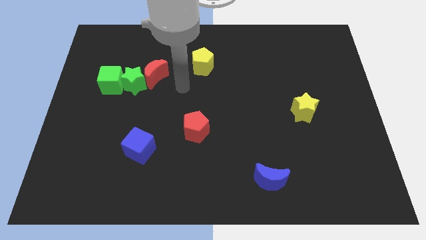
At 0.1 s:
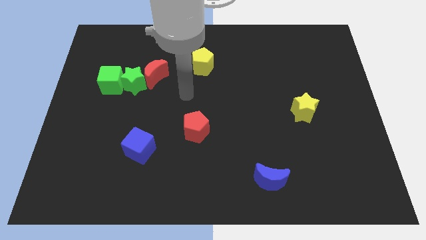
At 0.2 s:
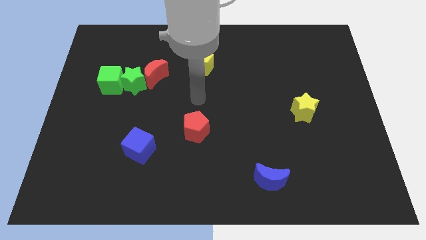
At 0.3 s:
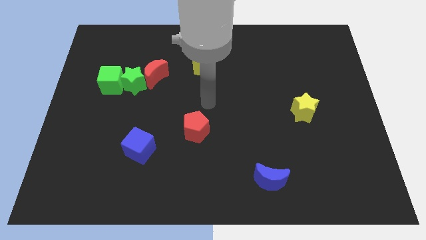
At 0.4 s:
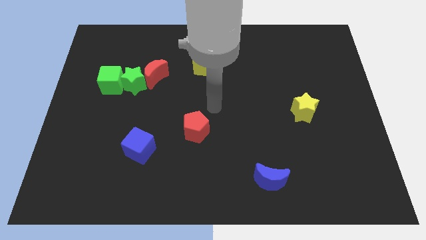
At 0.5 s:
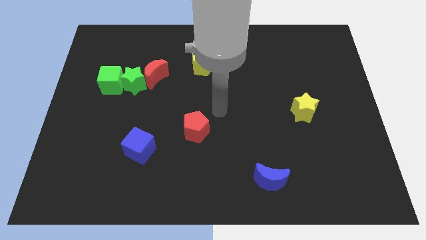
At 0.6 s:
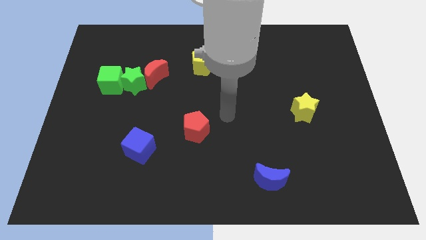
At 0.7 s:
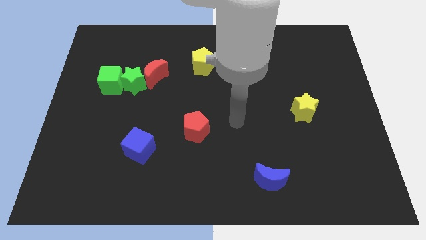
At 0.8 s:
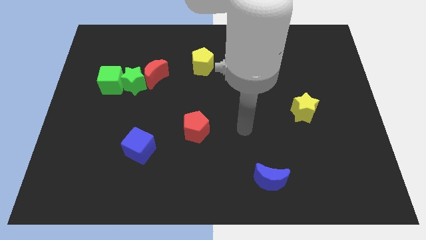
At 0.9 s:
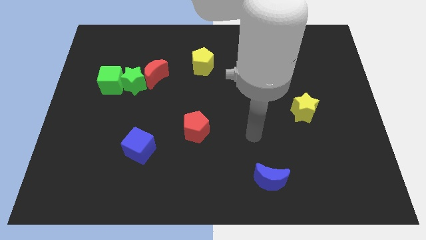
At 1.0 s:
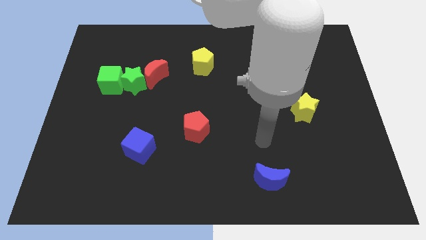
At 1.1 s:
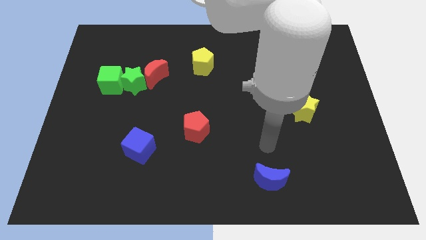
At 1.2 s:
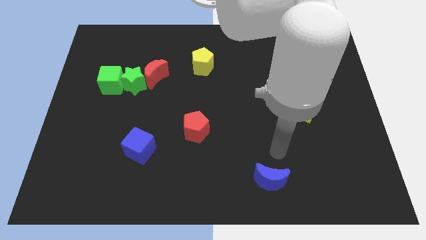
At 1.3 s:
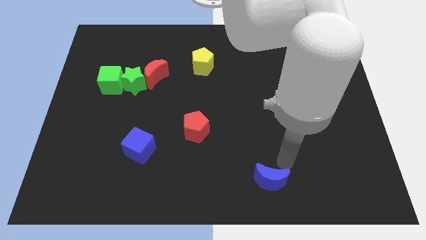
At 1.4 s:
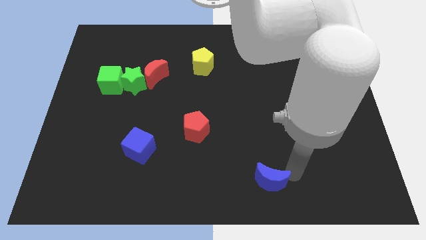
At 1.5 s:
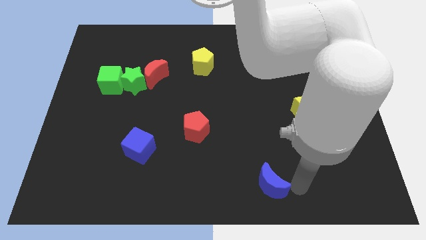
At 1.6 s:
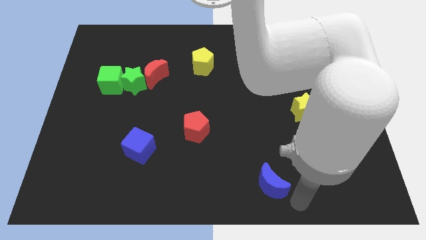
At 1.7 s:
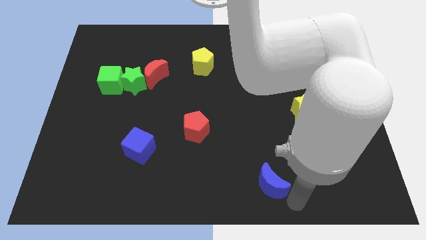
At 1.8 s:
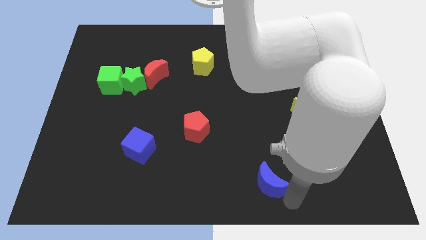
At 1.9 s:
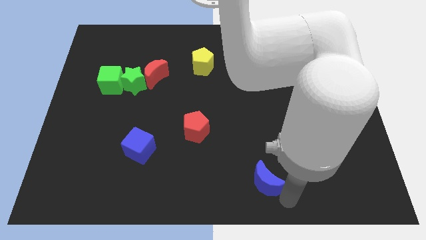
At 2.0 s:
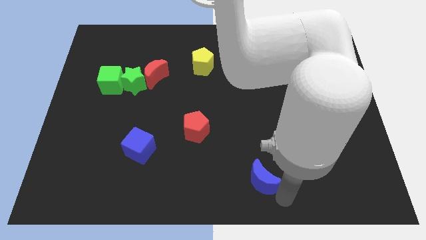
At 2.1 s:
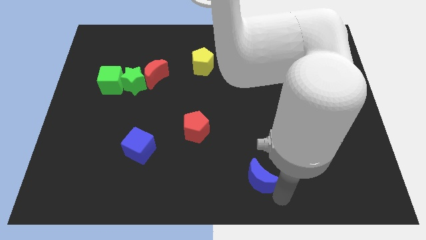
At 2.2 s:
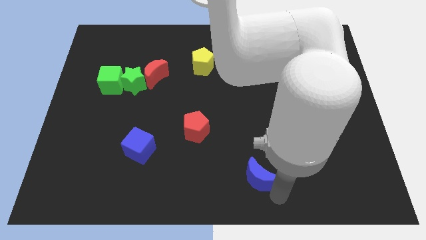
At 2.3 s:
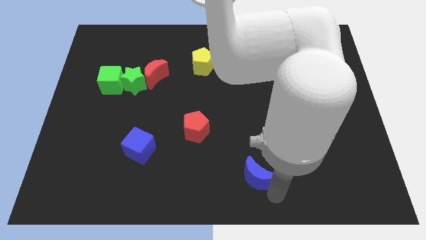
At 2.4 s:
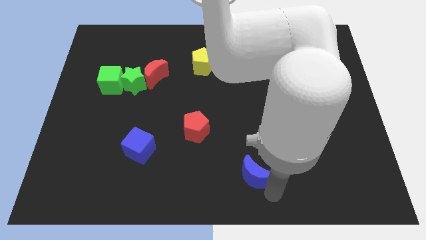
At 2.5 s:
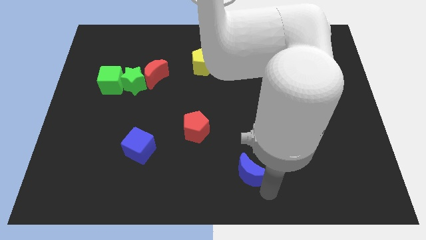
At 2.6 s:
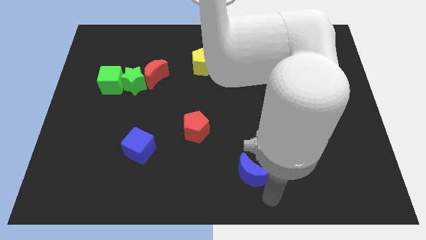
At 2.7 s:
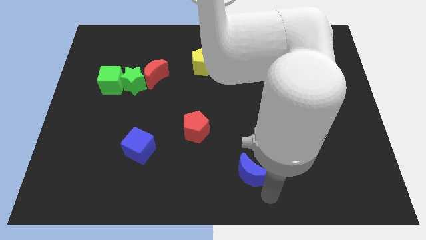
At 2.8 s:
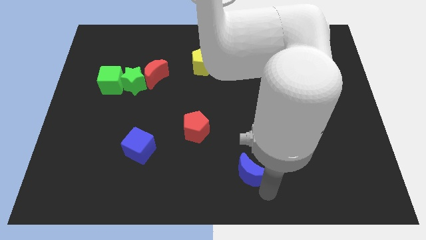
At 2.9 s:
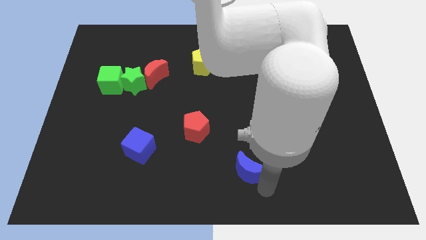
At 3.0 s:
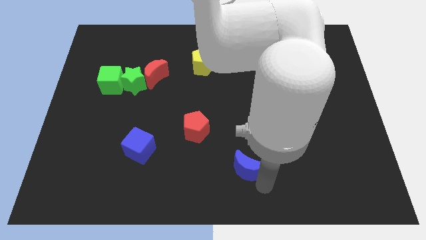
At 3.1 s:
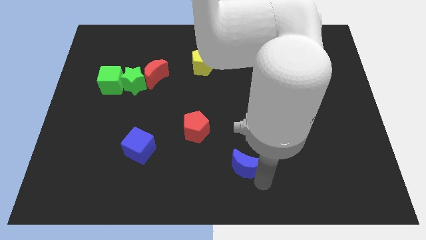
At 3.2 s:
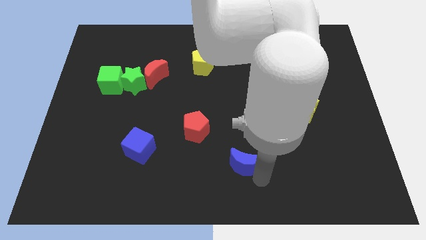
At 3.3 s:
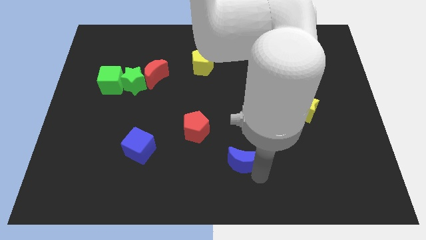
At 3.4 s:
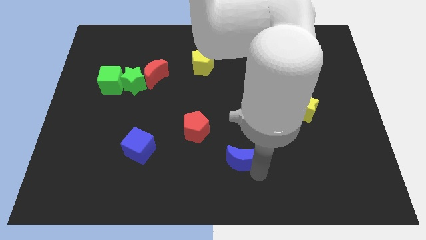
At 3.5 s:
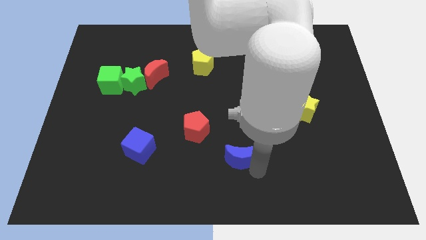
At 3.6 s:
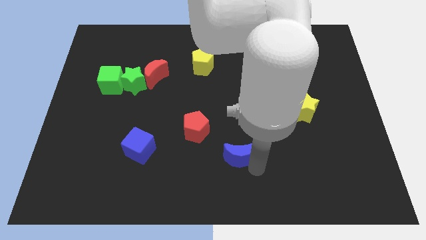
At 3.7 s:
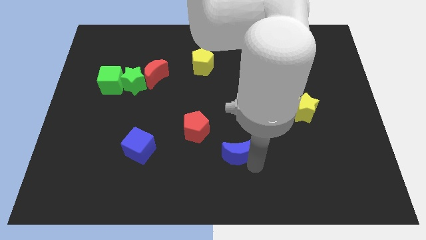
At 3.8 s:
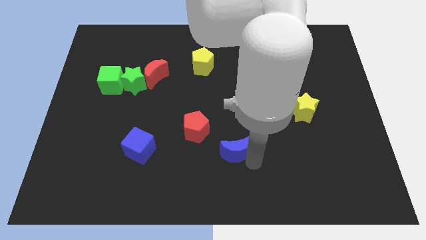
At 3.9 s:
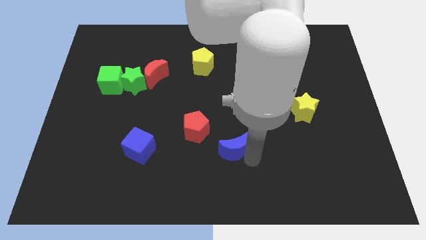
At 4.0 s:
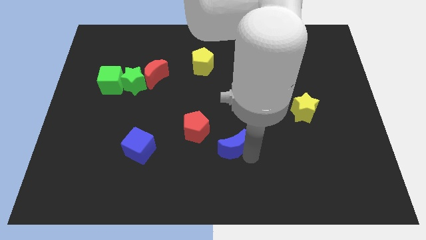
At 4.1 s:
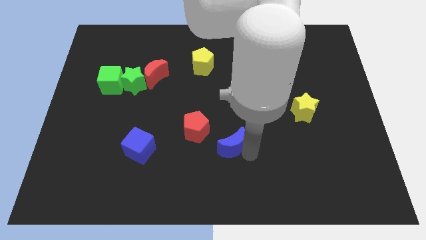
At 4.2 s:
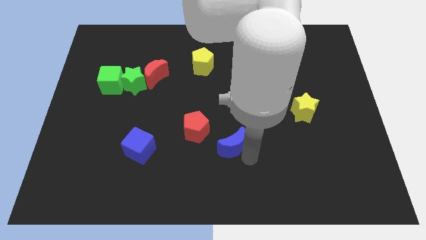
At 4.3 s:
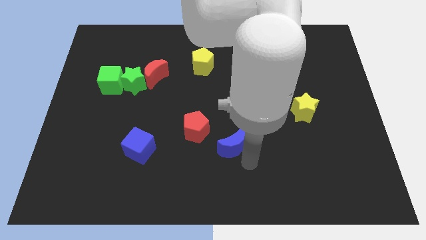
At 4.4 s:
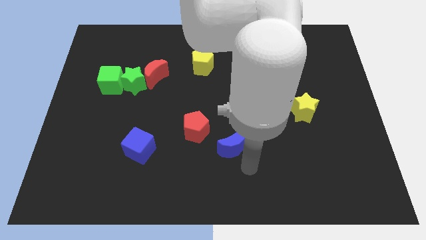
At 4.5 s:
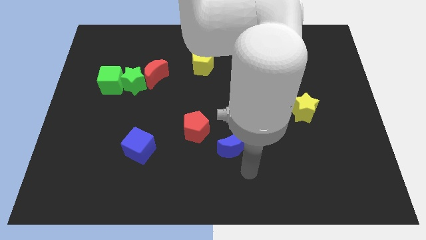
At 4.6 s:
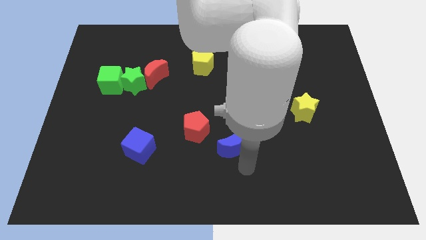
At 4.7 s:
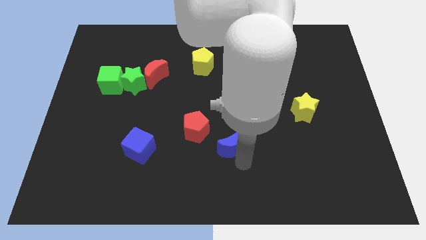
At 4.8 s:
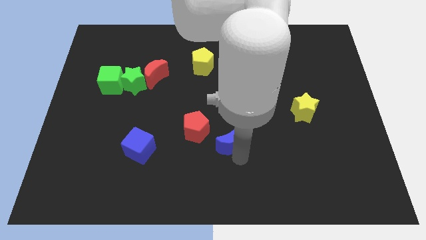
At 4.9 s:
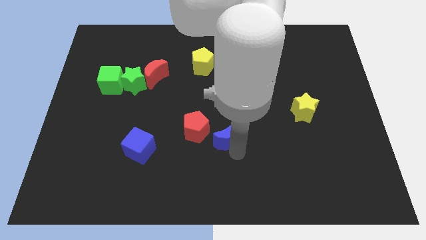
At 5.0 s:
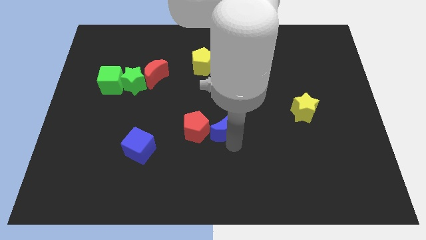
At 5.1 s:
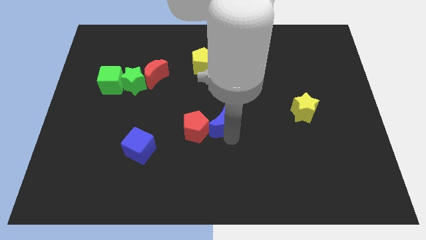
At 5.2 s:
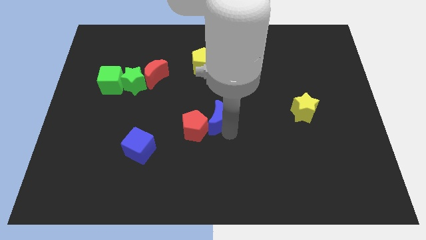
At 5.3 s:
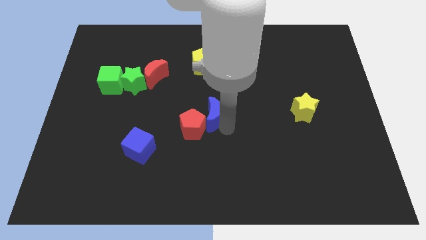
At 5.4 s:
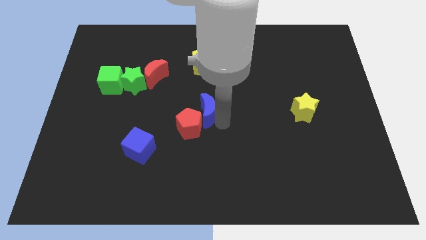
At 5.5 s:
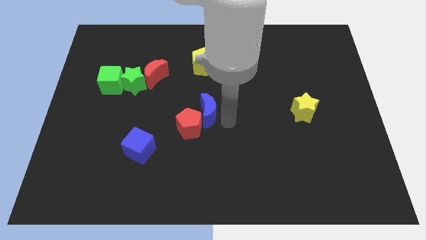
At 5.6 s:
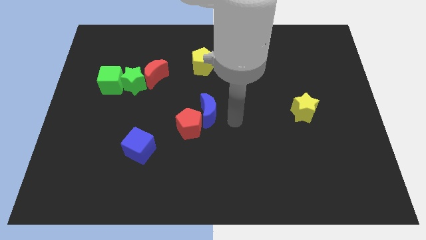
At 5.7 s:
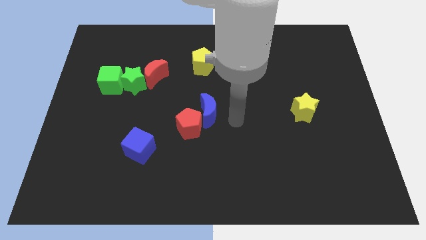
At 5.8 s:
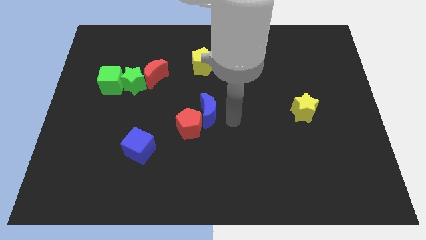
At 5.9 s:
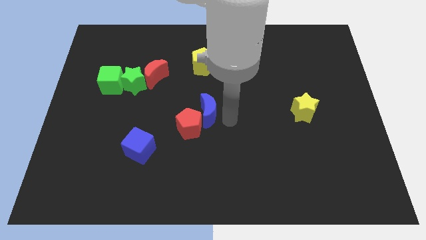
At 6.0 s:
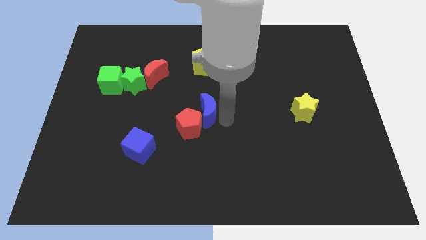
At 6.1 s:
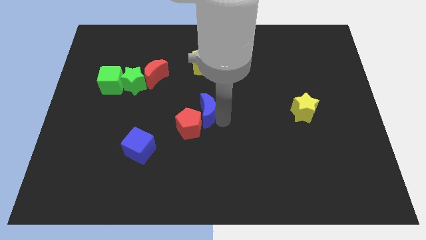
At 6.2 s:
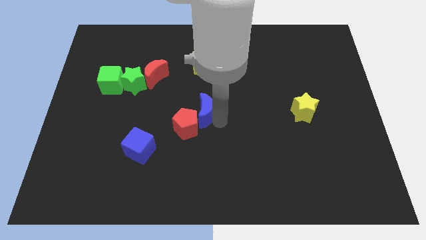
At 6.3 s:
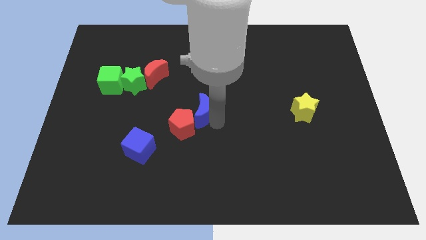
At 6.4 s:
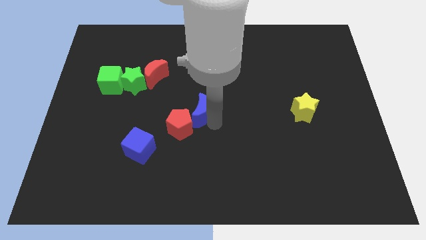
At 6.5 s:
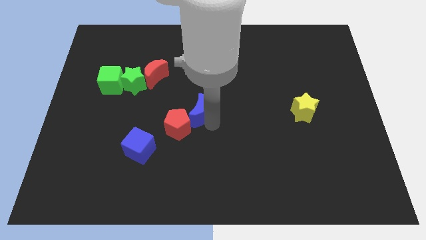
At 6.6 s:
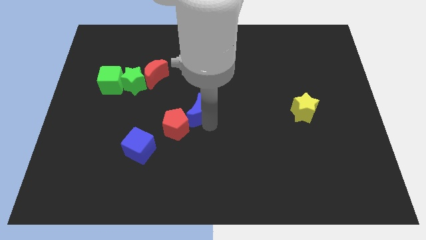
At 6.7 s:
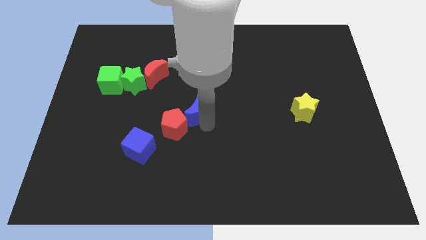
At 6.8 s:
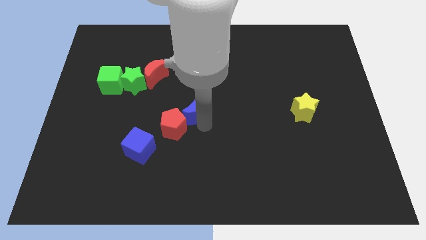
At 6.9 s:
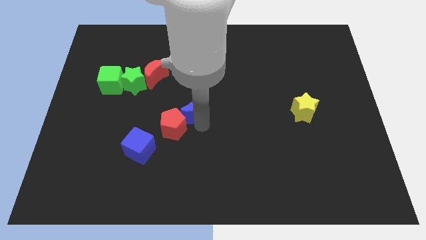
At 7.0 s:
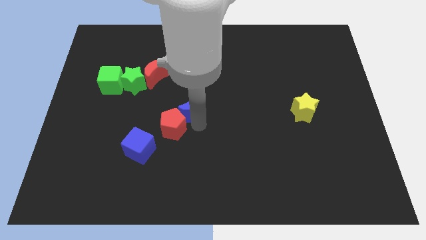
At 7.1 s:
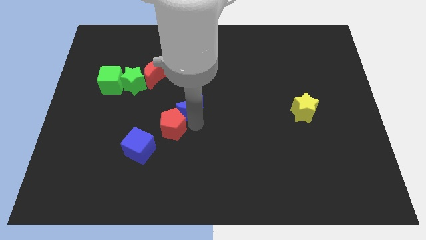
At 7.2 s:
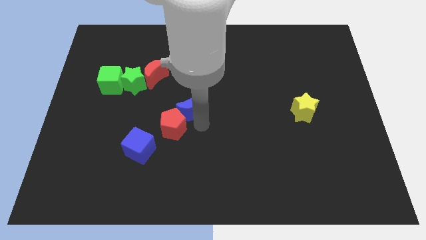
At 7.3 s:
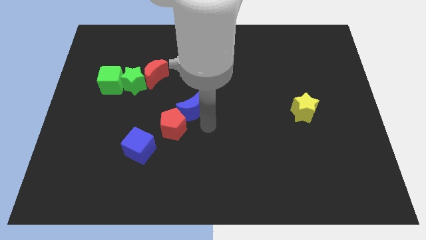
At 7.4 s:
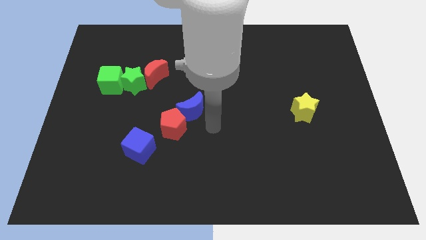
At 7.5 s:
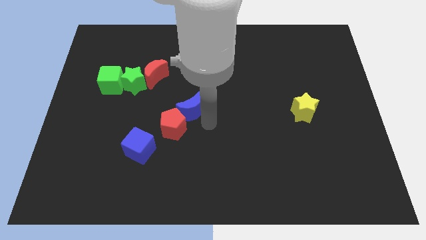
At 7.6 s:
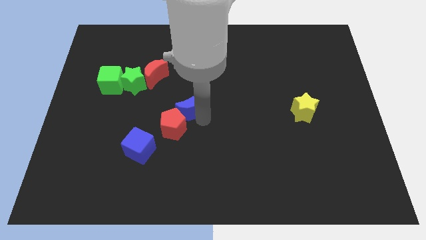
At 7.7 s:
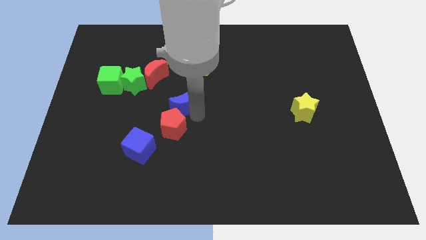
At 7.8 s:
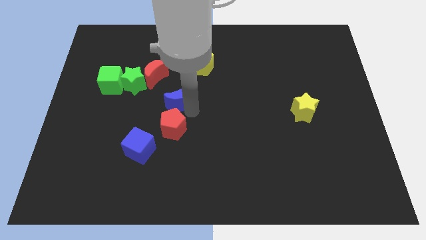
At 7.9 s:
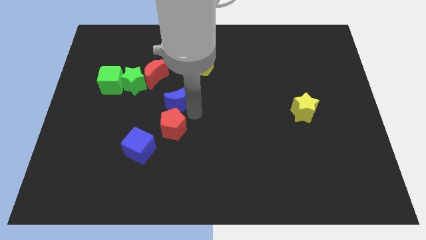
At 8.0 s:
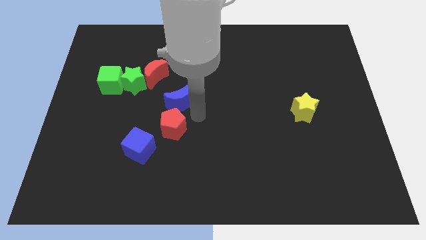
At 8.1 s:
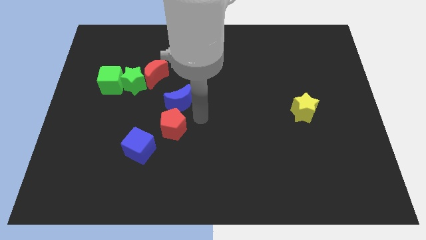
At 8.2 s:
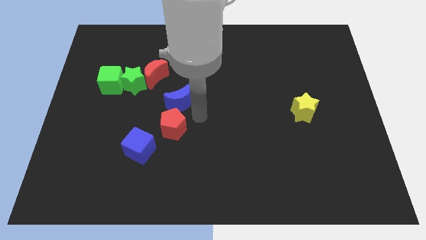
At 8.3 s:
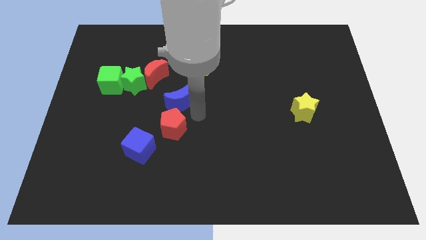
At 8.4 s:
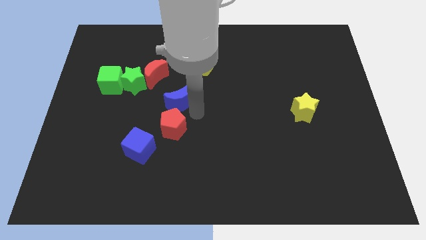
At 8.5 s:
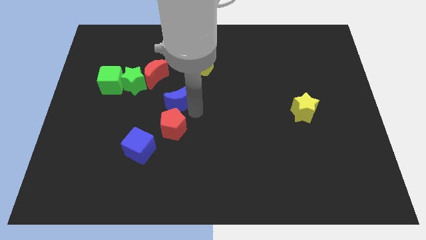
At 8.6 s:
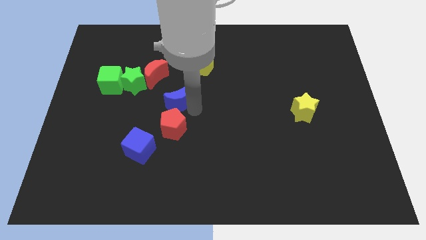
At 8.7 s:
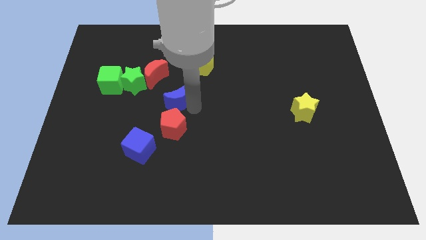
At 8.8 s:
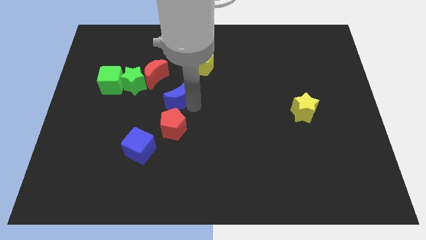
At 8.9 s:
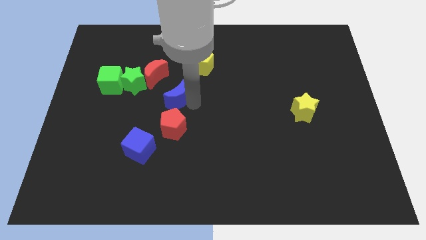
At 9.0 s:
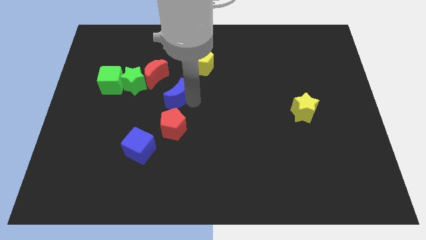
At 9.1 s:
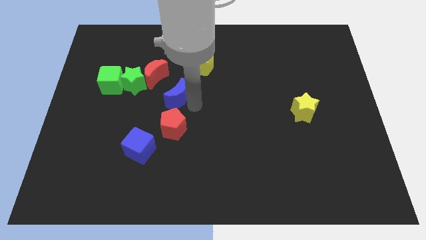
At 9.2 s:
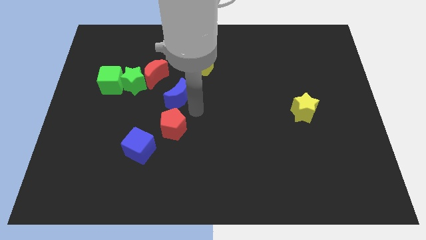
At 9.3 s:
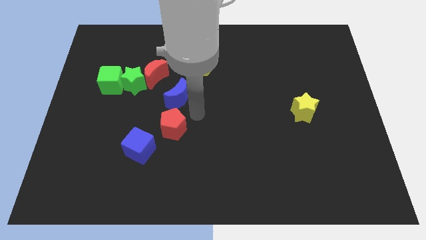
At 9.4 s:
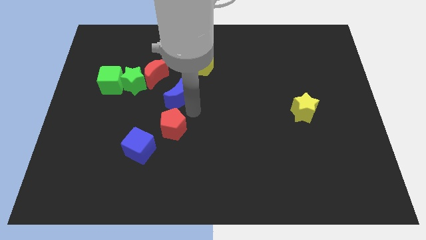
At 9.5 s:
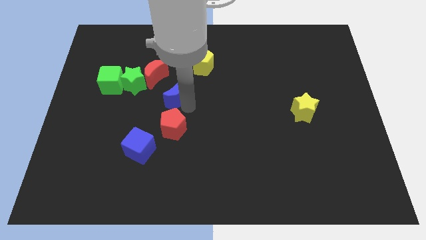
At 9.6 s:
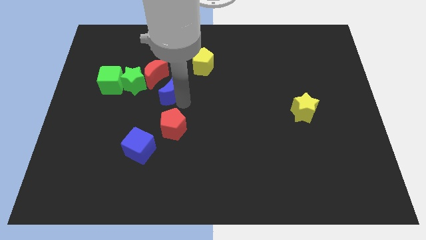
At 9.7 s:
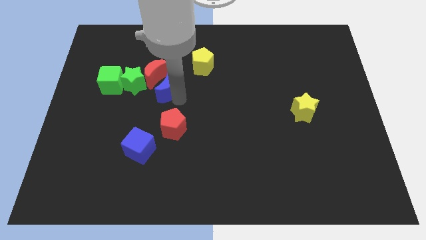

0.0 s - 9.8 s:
slide the blue moon next to the red moon
